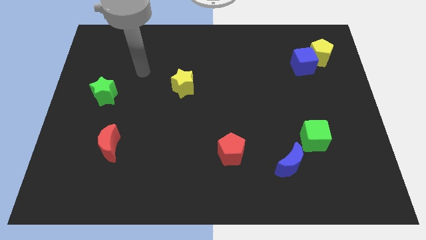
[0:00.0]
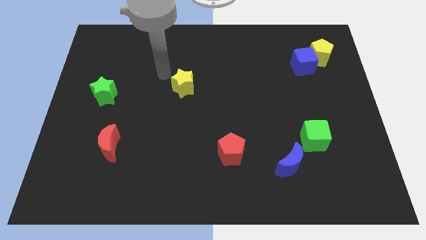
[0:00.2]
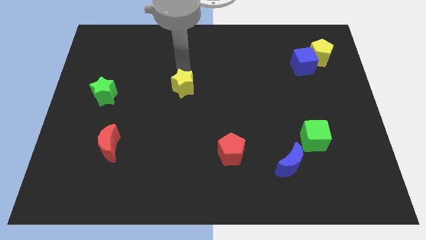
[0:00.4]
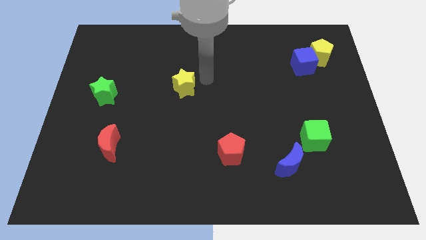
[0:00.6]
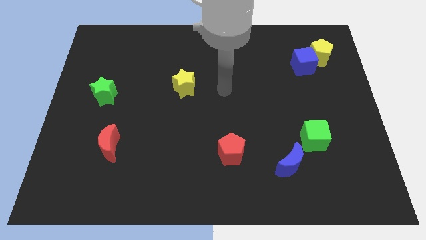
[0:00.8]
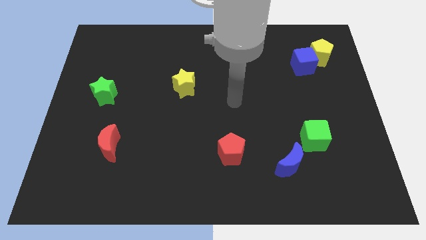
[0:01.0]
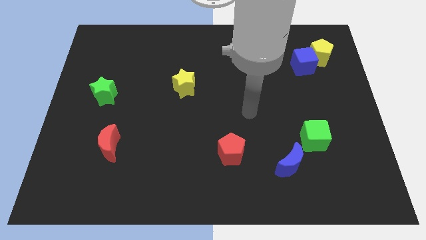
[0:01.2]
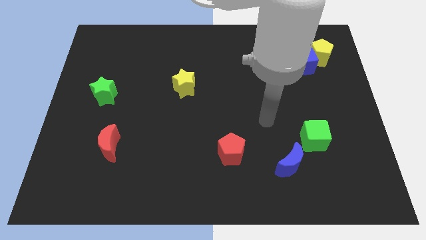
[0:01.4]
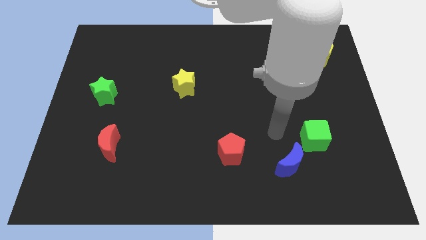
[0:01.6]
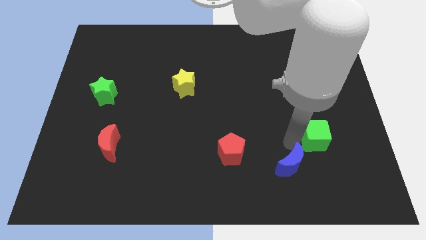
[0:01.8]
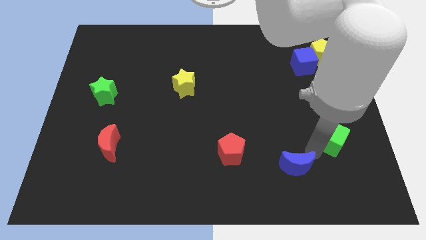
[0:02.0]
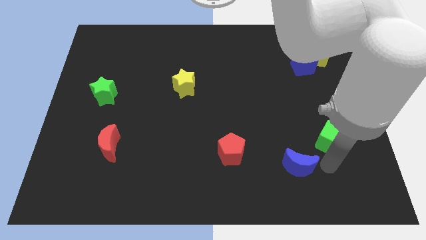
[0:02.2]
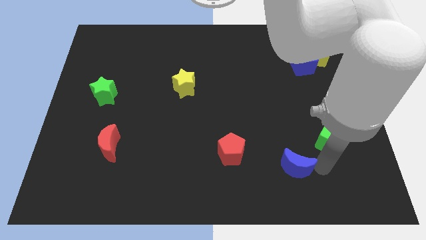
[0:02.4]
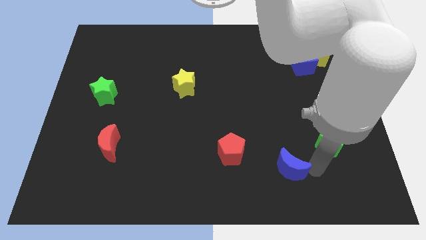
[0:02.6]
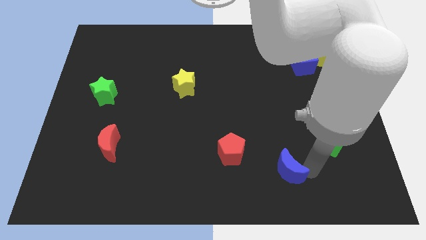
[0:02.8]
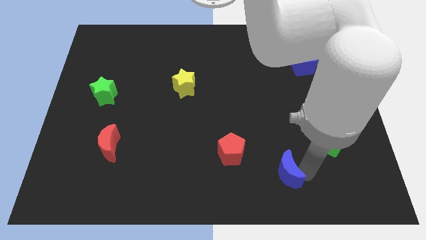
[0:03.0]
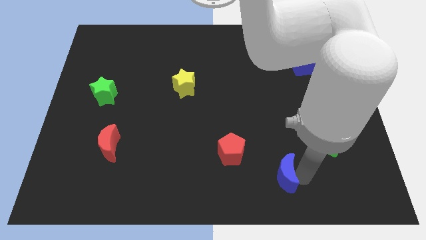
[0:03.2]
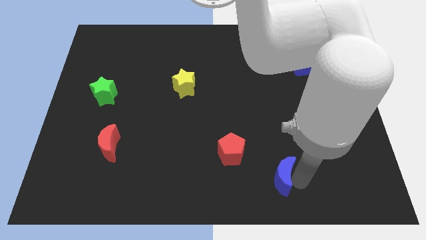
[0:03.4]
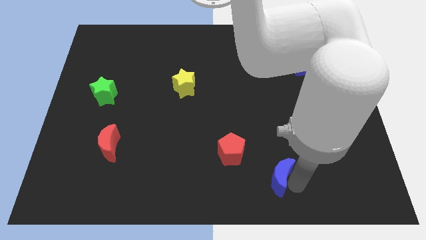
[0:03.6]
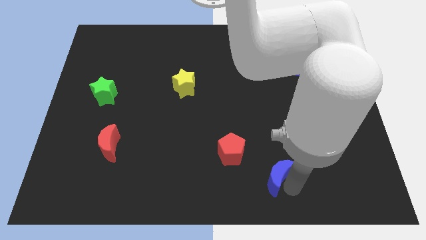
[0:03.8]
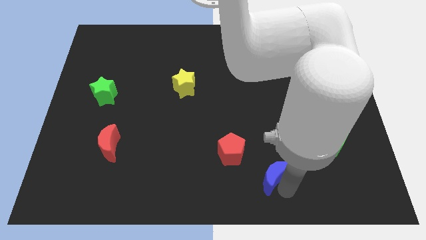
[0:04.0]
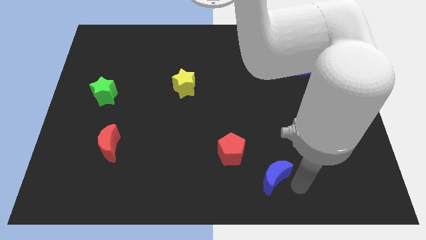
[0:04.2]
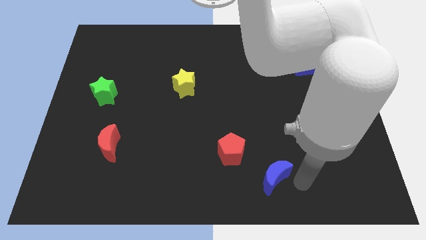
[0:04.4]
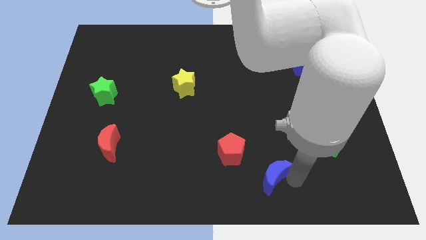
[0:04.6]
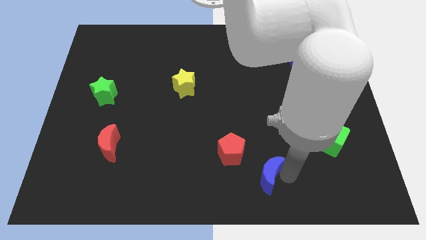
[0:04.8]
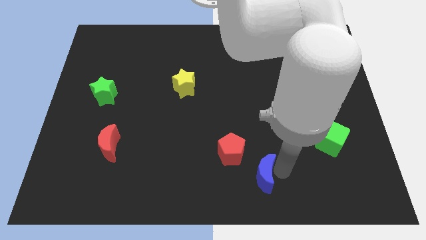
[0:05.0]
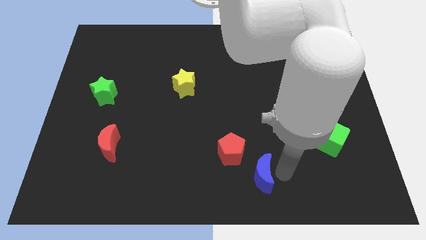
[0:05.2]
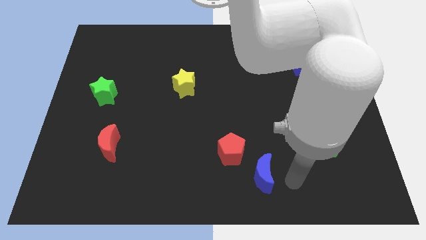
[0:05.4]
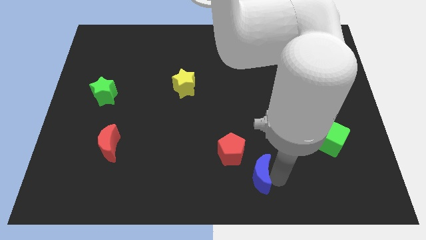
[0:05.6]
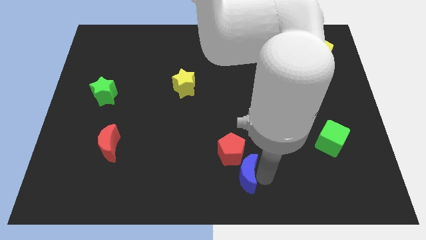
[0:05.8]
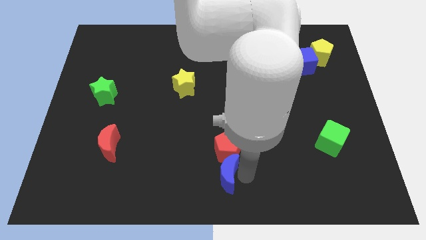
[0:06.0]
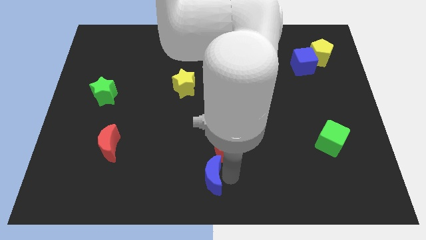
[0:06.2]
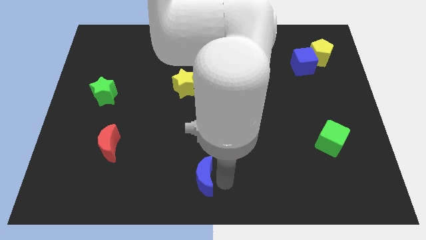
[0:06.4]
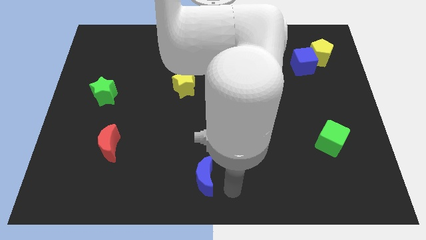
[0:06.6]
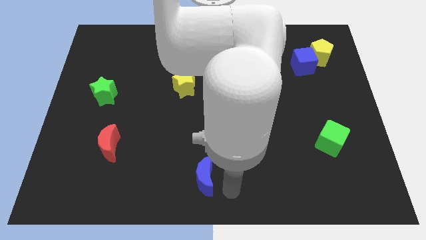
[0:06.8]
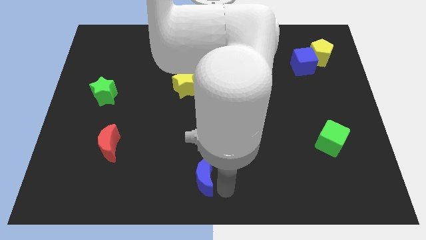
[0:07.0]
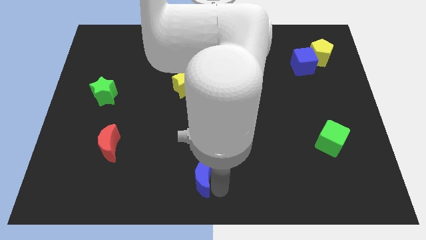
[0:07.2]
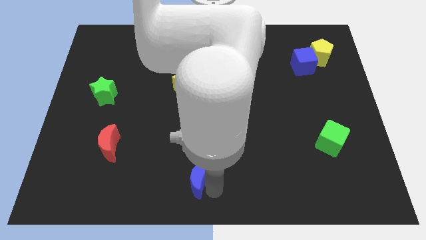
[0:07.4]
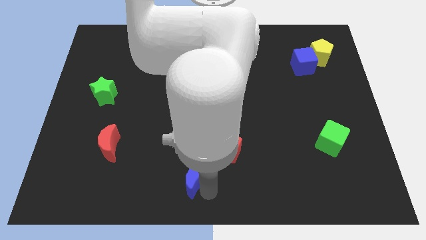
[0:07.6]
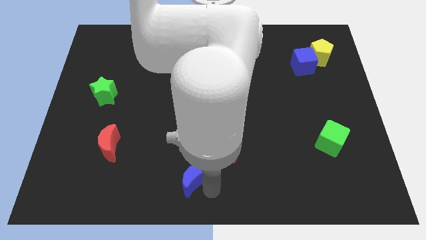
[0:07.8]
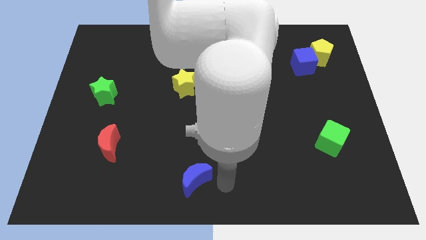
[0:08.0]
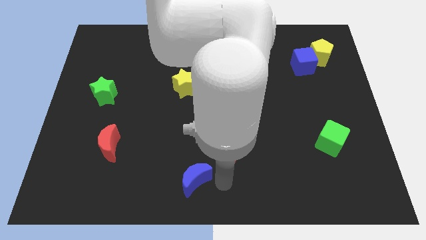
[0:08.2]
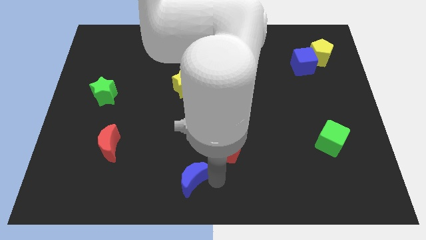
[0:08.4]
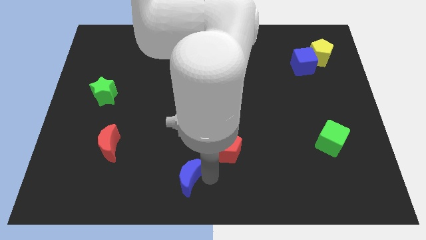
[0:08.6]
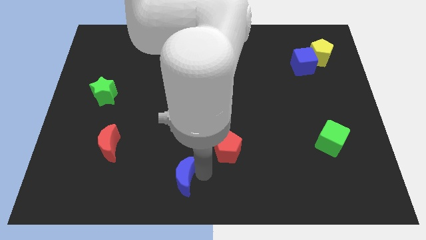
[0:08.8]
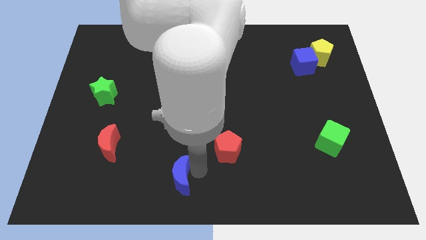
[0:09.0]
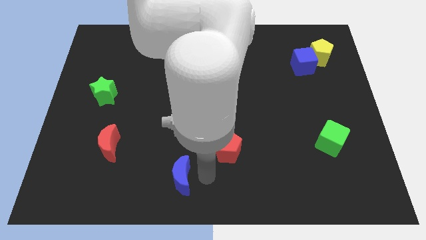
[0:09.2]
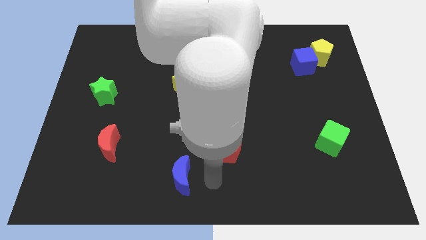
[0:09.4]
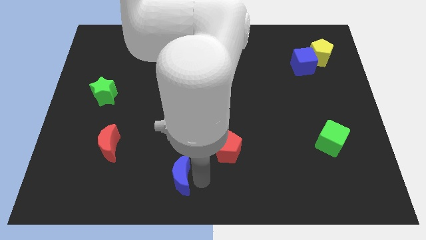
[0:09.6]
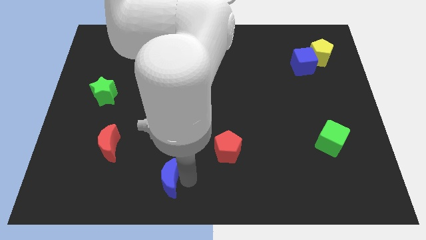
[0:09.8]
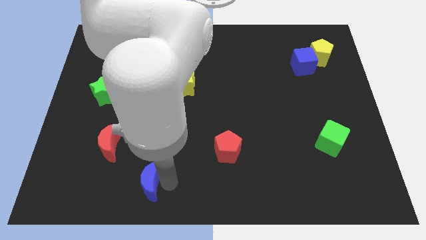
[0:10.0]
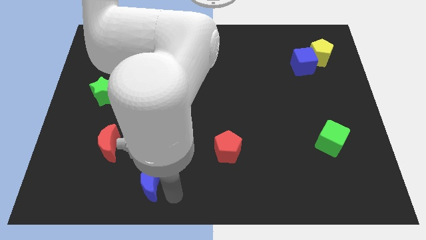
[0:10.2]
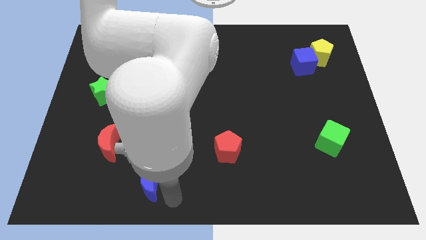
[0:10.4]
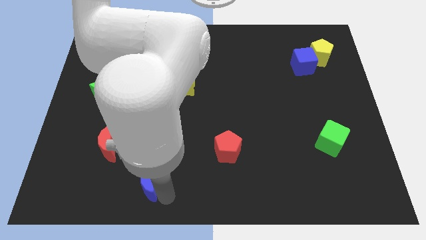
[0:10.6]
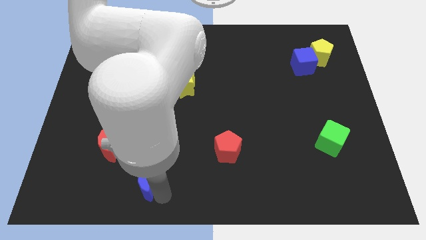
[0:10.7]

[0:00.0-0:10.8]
slide the blue moon to the bottom right of the red moon

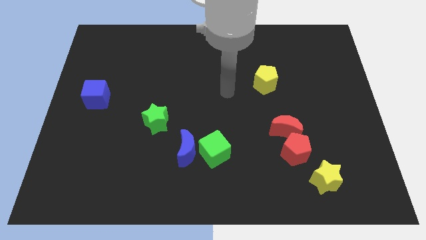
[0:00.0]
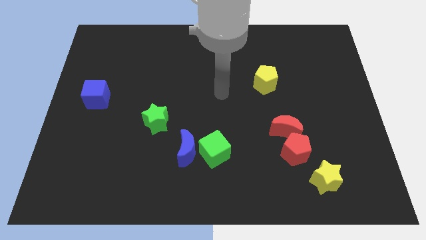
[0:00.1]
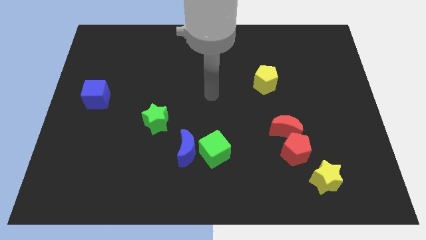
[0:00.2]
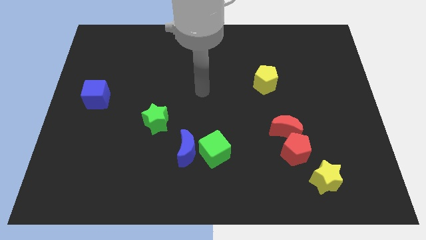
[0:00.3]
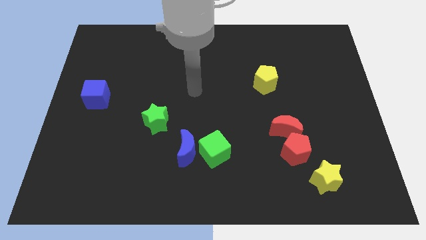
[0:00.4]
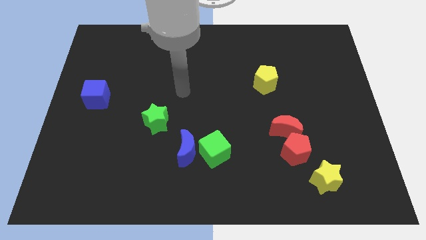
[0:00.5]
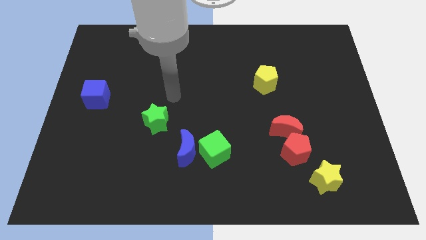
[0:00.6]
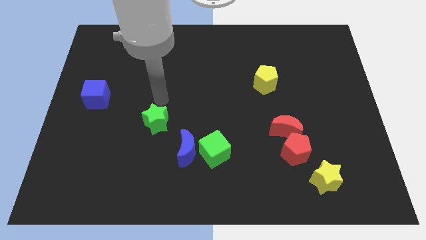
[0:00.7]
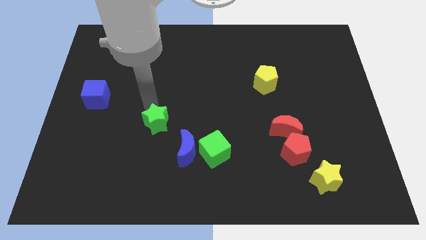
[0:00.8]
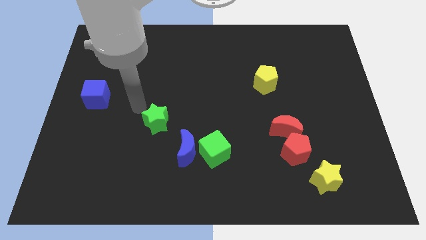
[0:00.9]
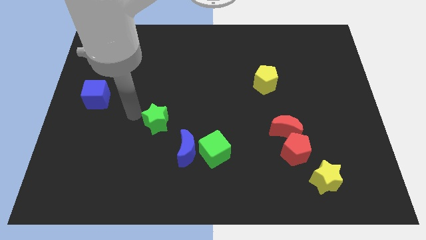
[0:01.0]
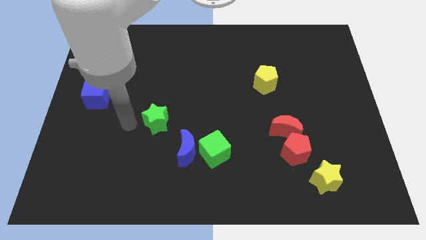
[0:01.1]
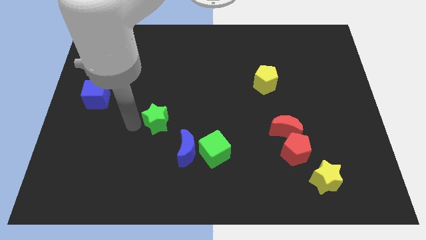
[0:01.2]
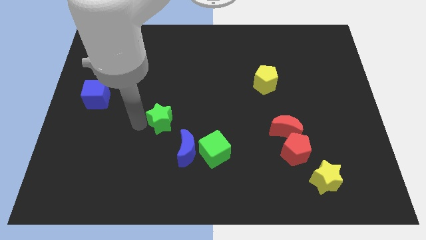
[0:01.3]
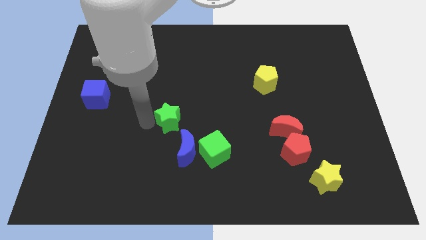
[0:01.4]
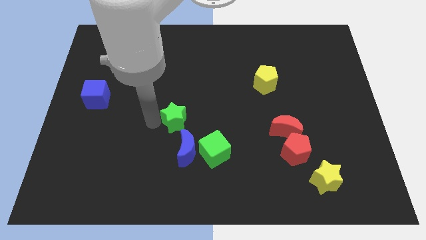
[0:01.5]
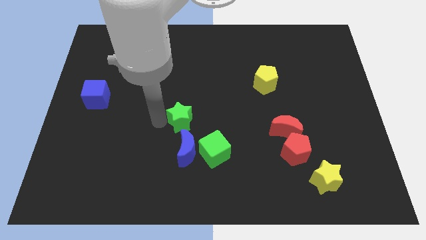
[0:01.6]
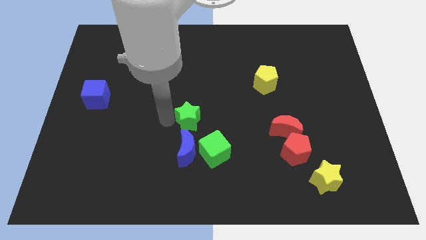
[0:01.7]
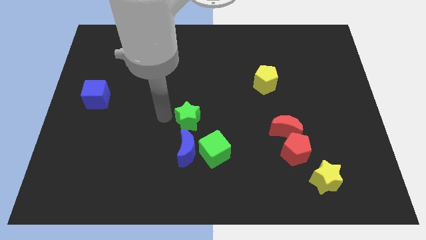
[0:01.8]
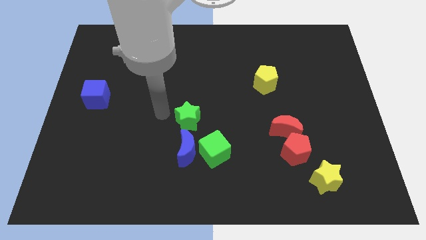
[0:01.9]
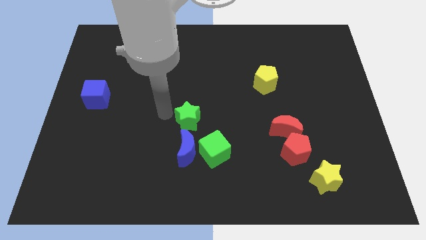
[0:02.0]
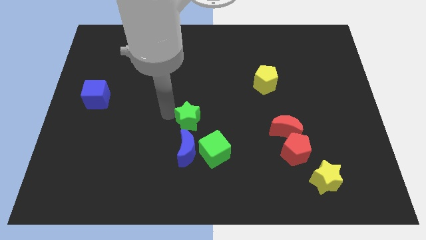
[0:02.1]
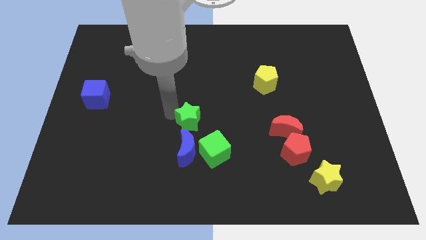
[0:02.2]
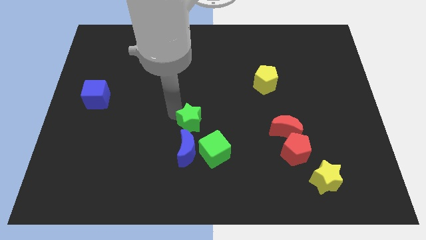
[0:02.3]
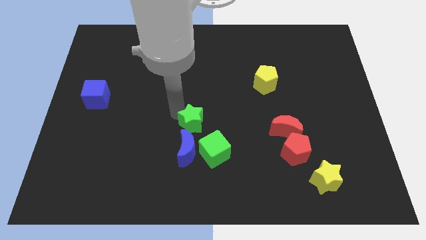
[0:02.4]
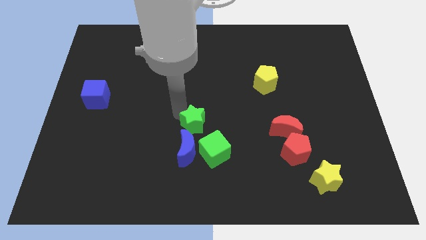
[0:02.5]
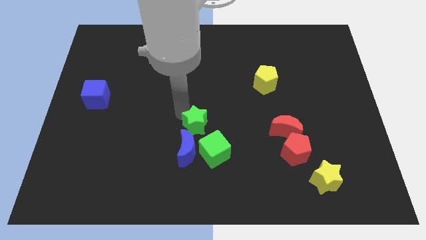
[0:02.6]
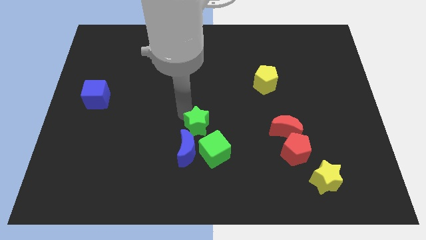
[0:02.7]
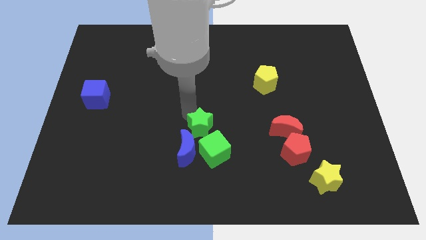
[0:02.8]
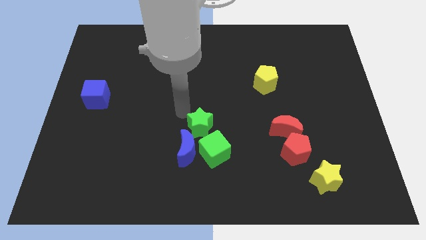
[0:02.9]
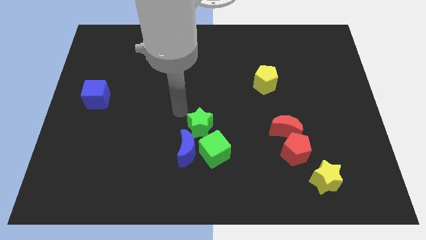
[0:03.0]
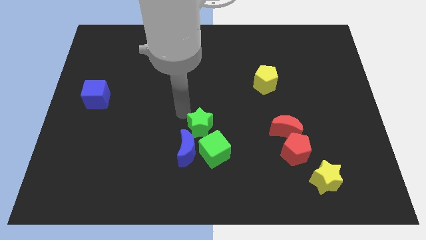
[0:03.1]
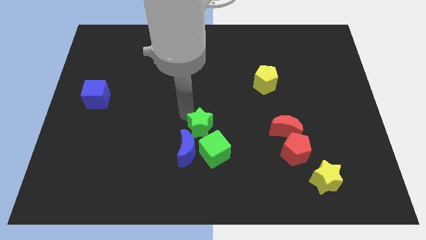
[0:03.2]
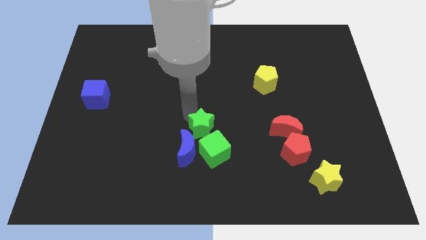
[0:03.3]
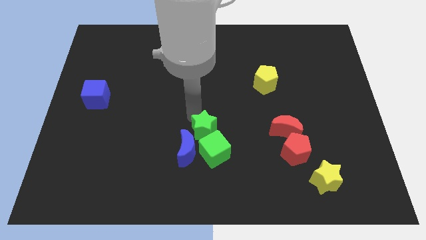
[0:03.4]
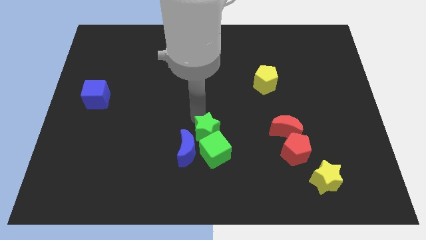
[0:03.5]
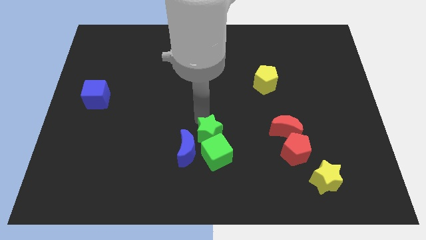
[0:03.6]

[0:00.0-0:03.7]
slide the green star to the right of the blue moon
